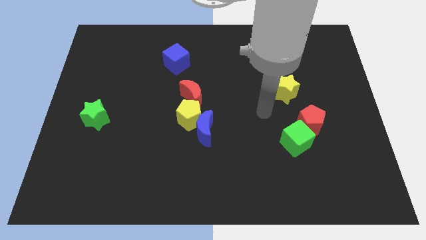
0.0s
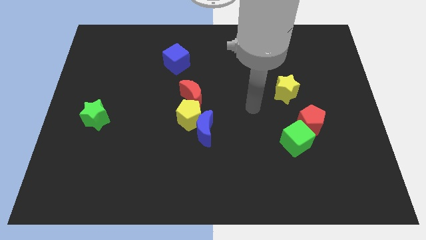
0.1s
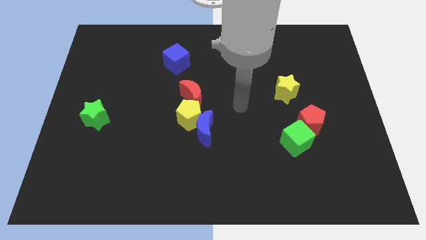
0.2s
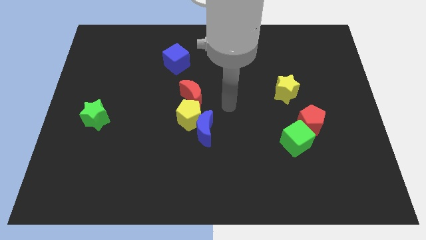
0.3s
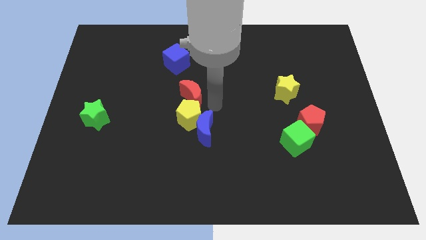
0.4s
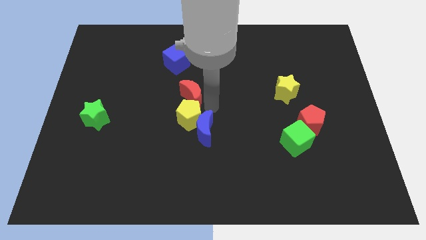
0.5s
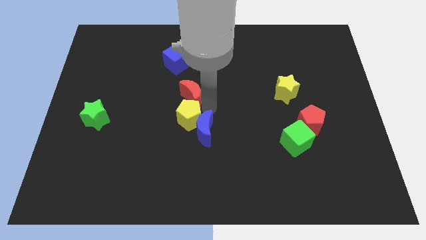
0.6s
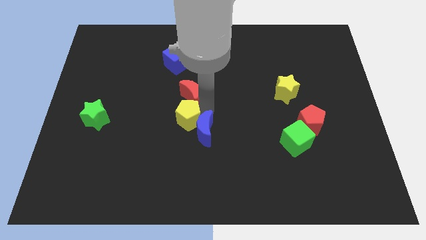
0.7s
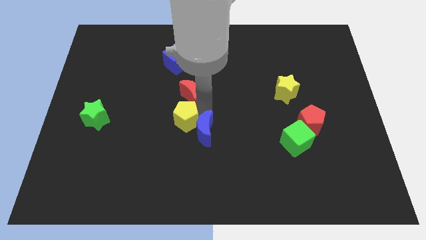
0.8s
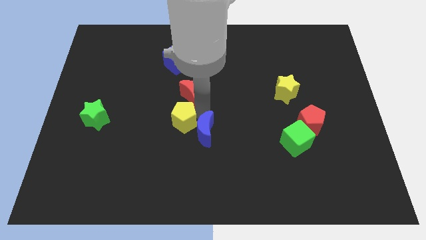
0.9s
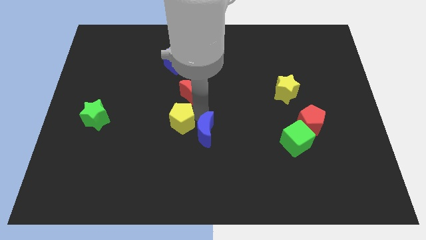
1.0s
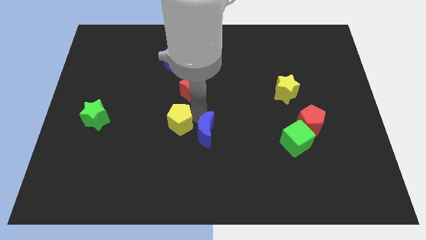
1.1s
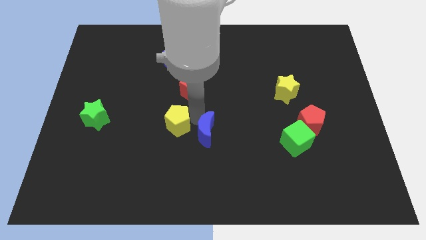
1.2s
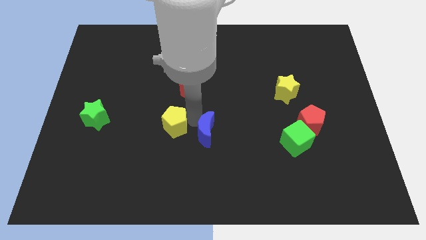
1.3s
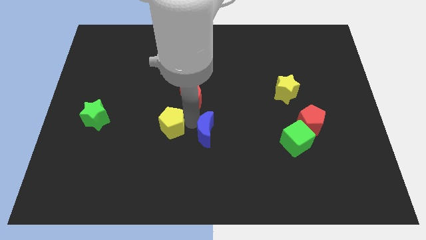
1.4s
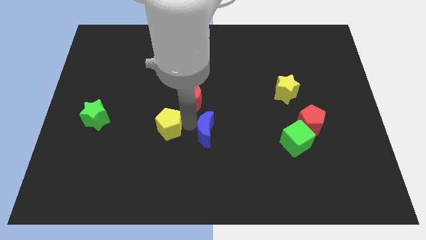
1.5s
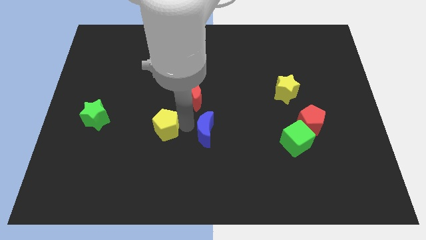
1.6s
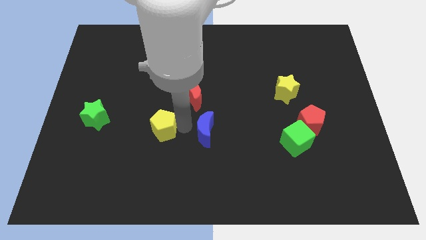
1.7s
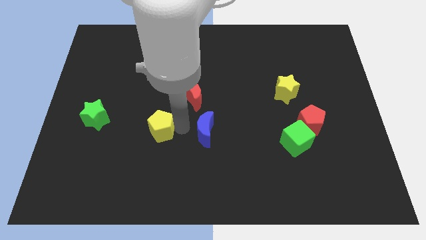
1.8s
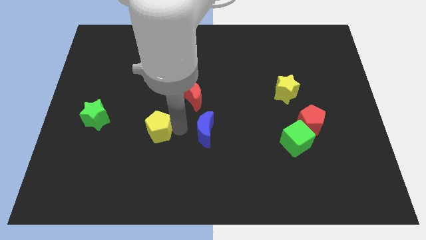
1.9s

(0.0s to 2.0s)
pull the yellow pentagon apart from the blue moon and red moon

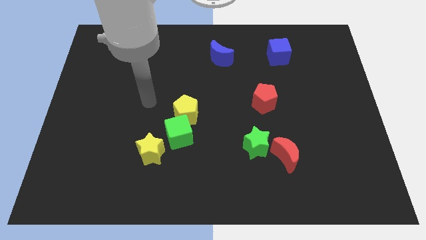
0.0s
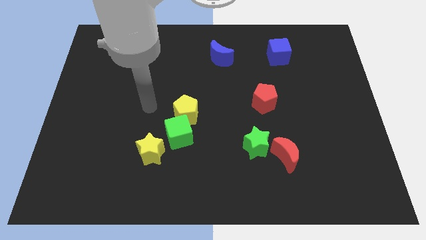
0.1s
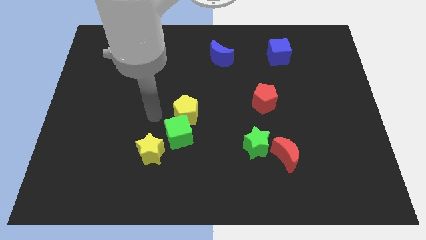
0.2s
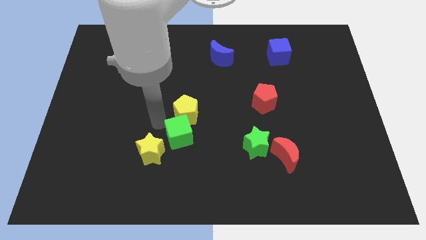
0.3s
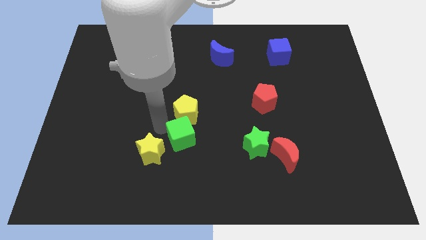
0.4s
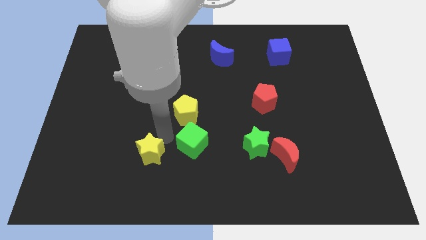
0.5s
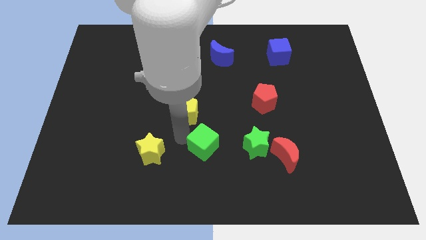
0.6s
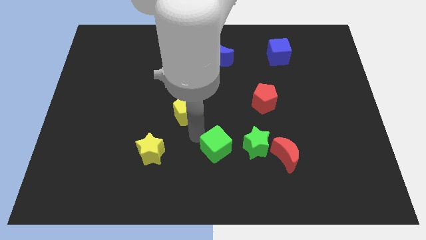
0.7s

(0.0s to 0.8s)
separate the yellow pentagon from the green cube

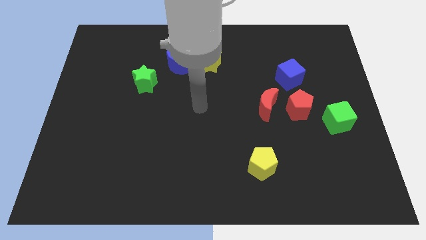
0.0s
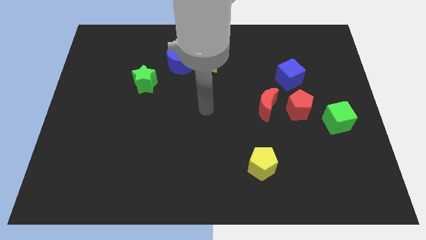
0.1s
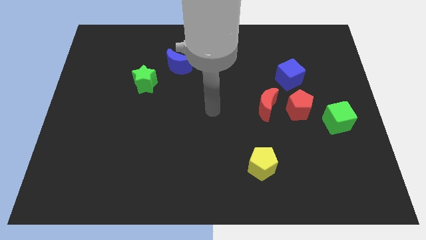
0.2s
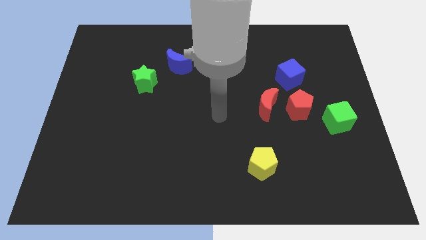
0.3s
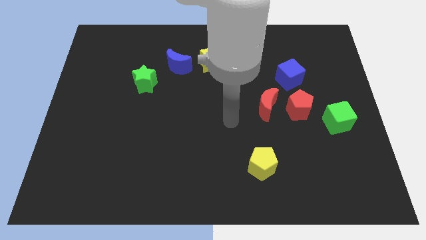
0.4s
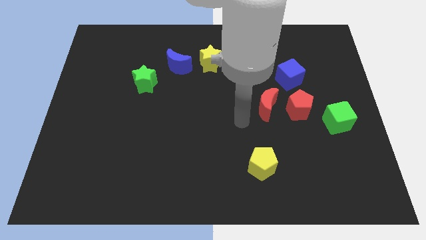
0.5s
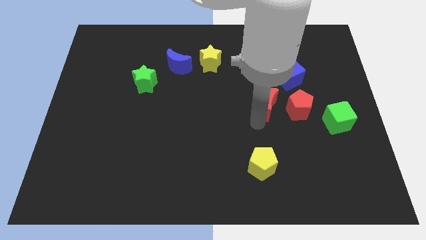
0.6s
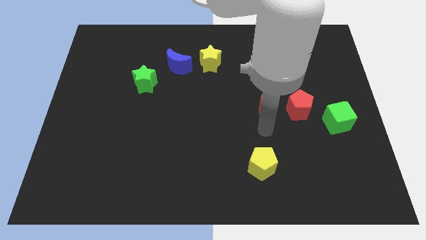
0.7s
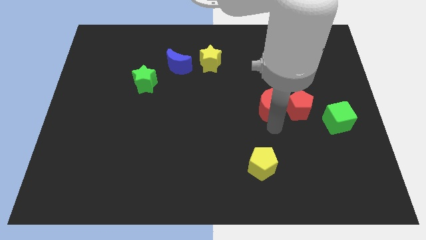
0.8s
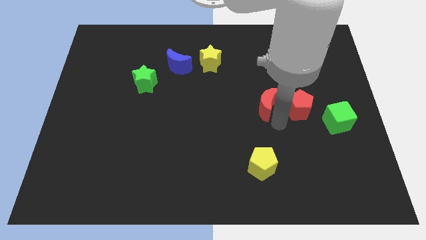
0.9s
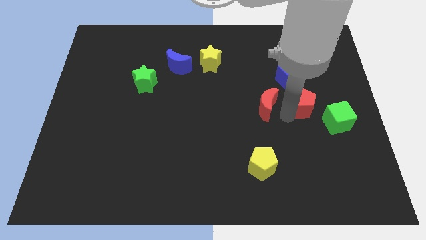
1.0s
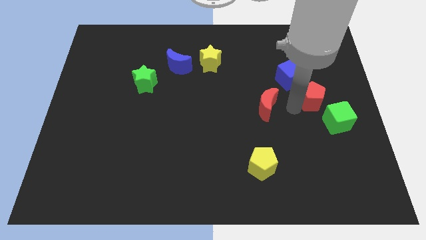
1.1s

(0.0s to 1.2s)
separate the red moon from the red pentagon

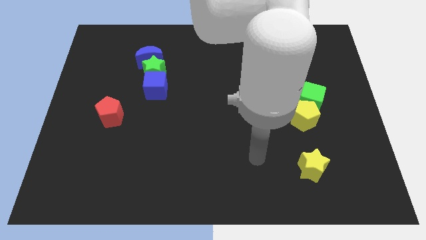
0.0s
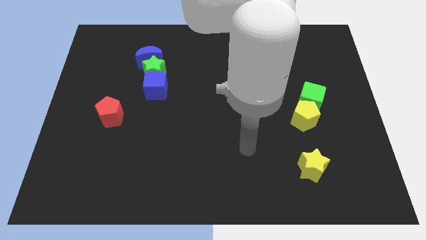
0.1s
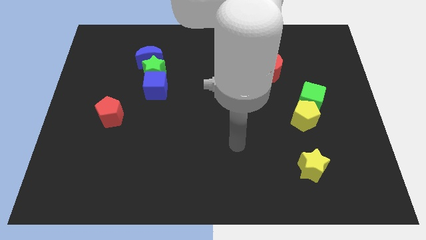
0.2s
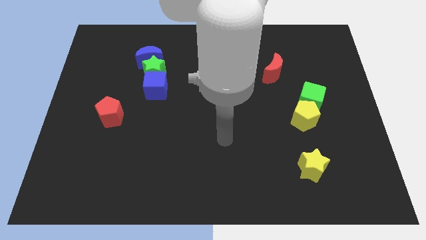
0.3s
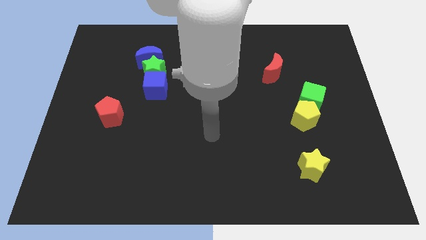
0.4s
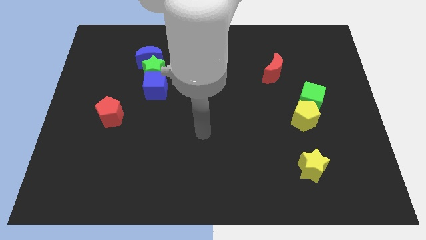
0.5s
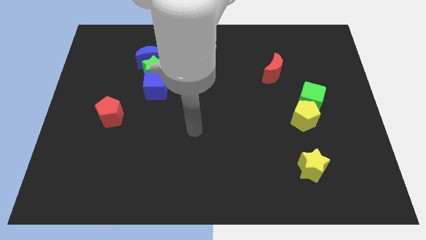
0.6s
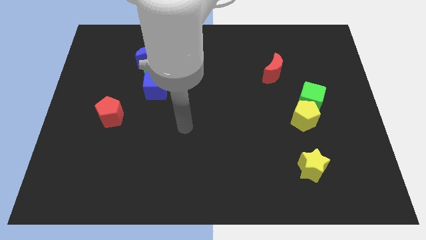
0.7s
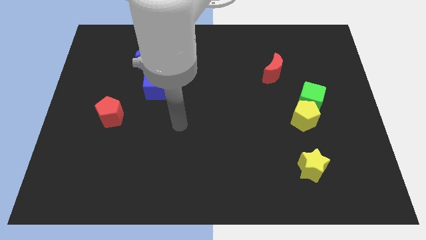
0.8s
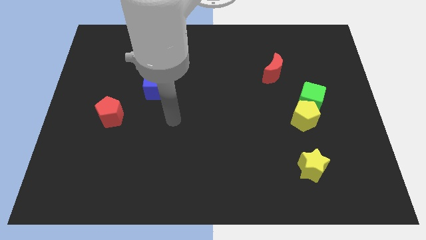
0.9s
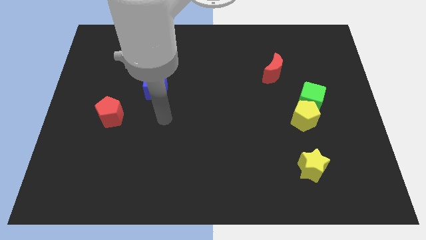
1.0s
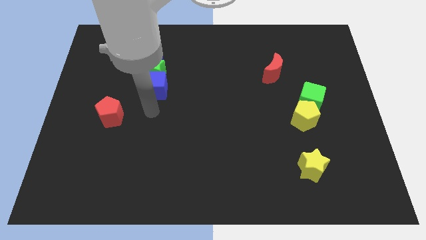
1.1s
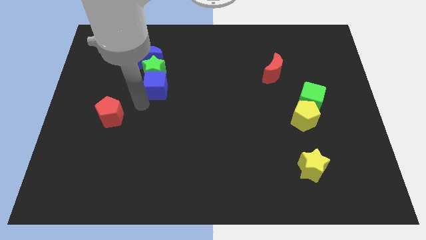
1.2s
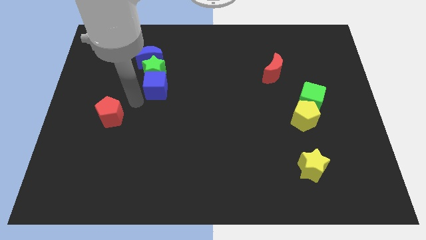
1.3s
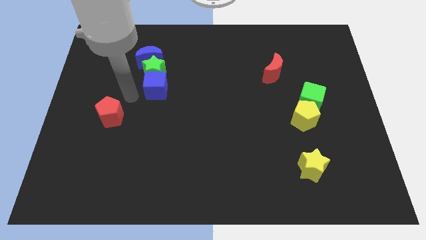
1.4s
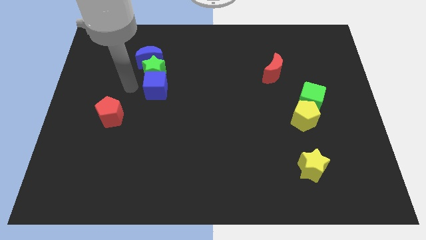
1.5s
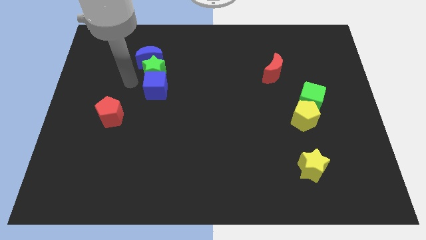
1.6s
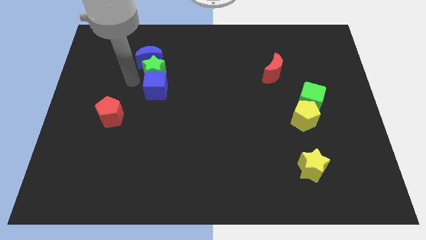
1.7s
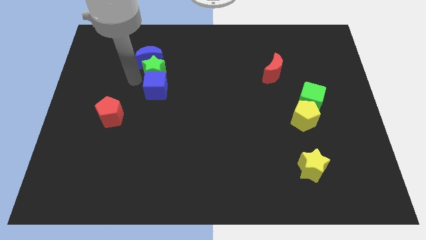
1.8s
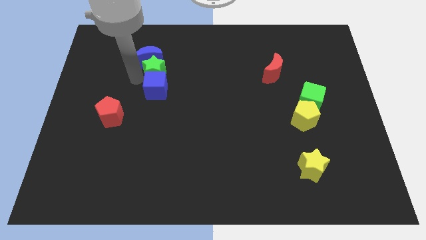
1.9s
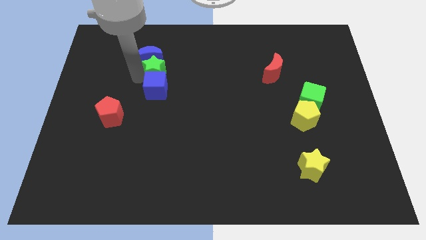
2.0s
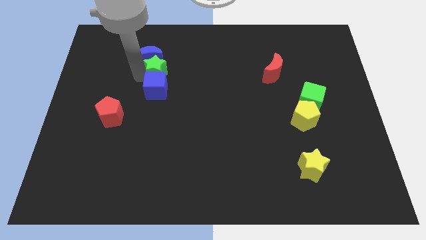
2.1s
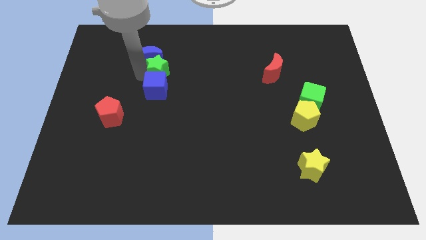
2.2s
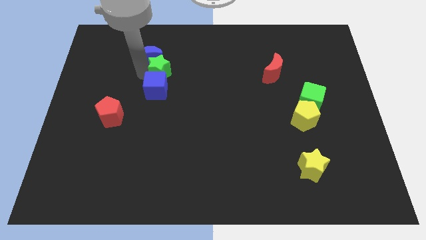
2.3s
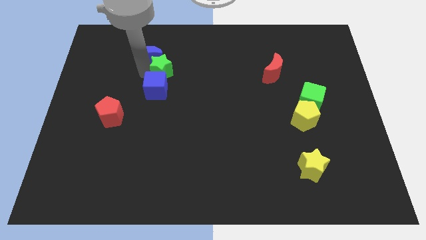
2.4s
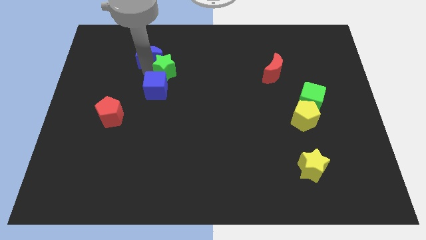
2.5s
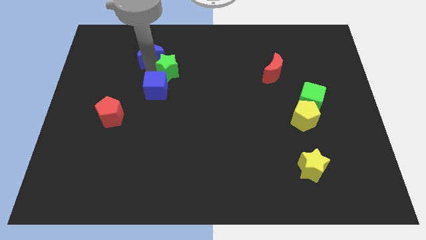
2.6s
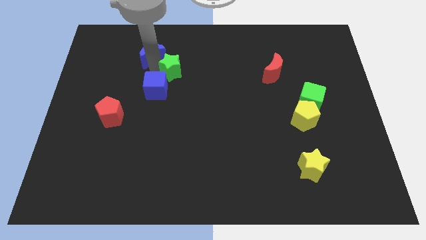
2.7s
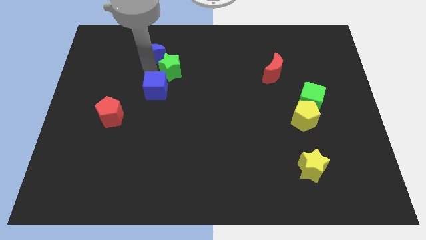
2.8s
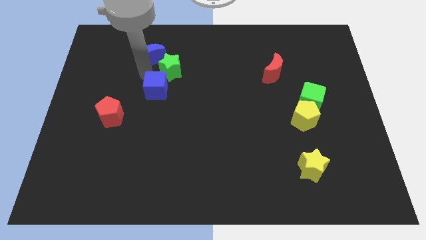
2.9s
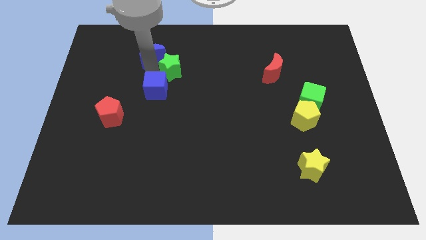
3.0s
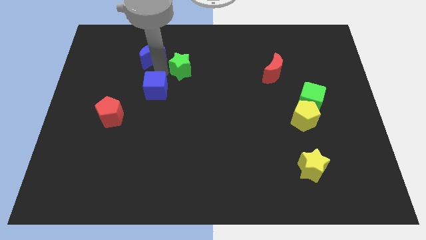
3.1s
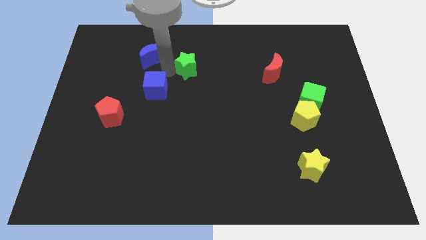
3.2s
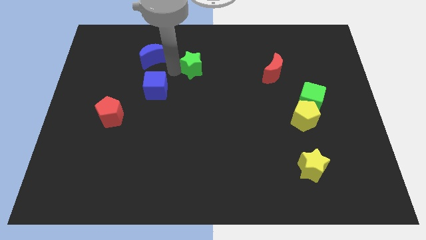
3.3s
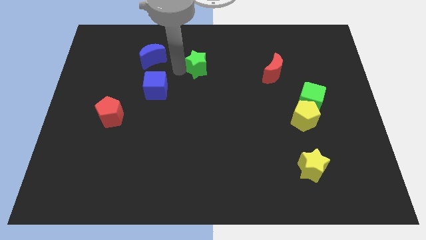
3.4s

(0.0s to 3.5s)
move the green star away from the blue moon and blue cube

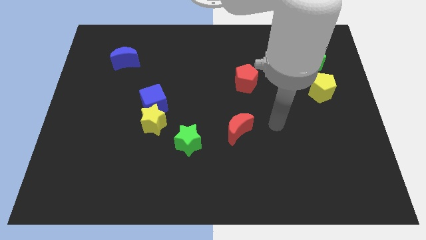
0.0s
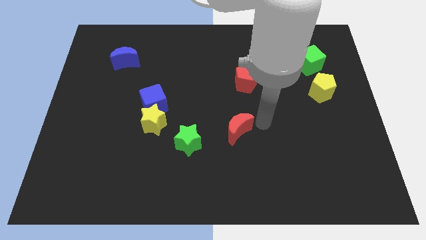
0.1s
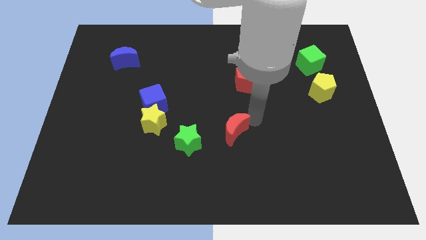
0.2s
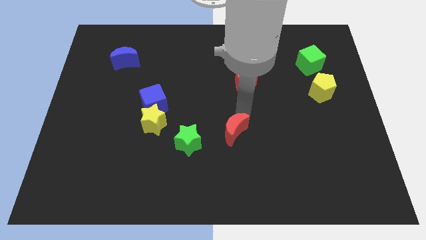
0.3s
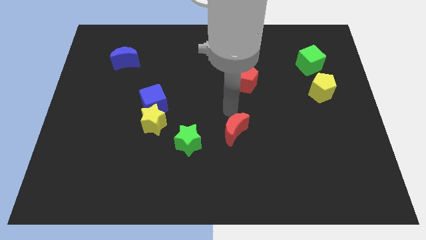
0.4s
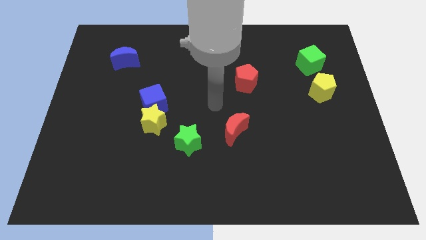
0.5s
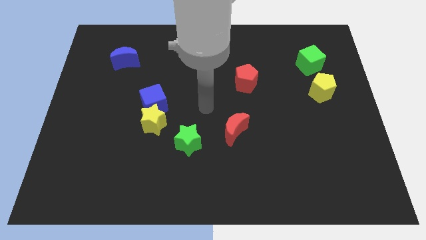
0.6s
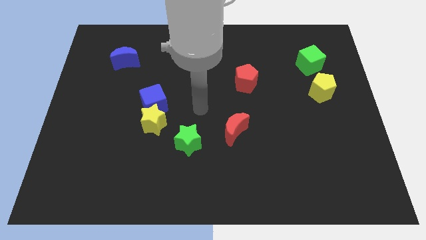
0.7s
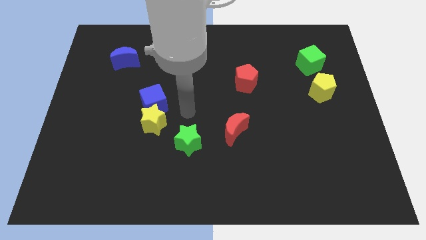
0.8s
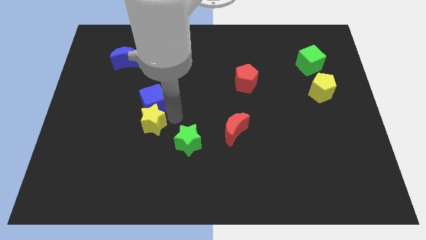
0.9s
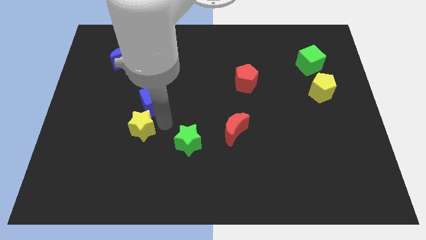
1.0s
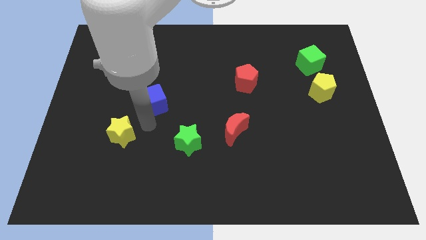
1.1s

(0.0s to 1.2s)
pull the blue cube apart from the yellow star

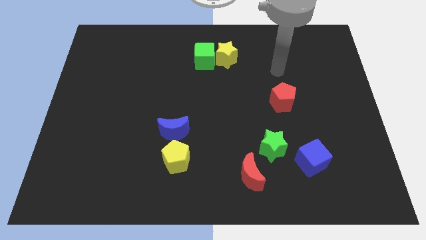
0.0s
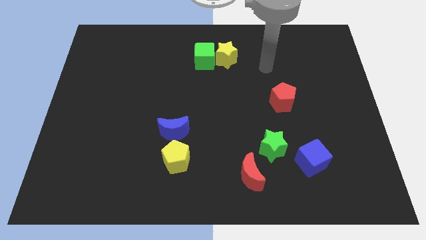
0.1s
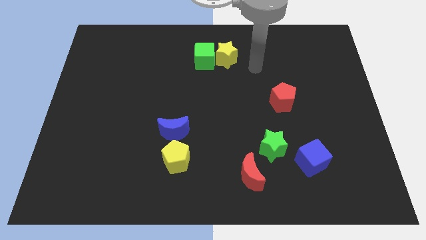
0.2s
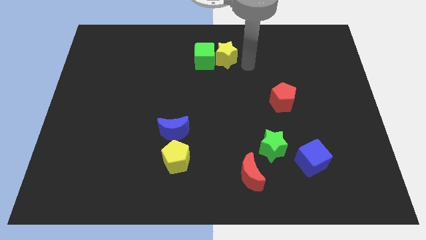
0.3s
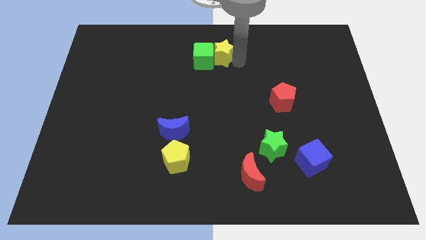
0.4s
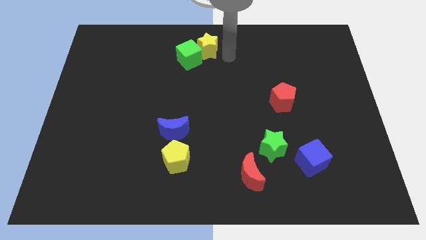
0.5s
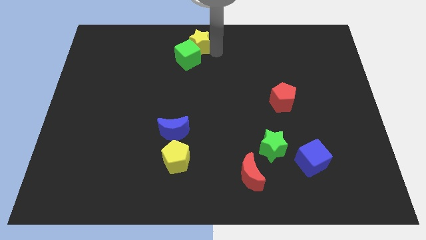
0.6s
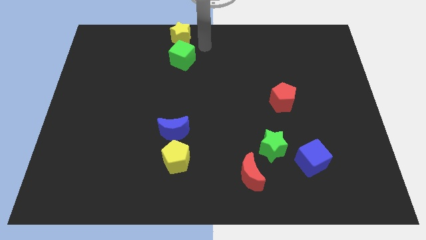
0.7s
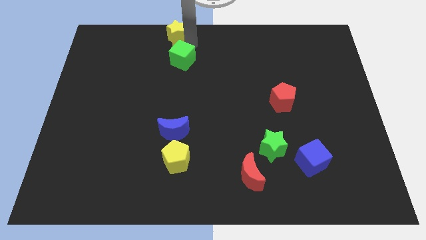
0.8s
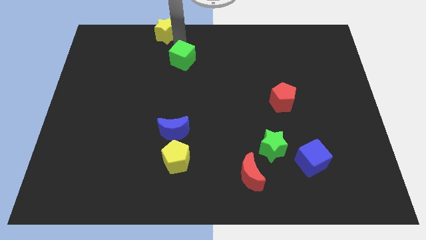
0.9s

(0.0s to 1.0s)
move the green cube away from the yellow star
